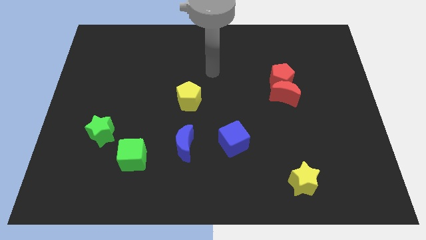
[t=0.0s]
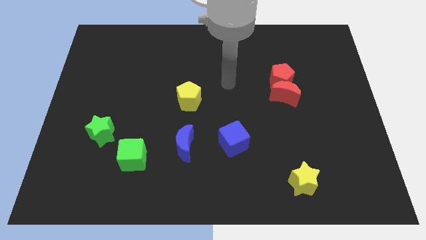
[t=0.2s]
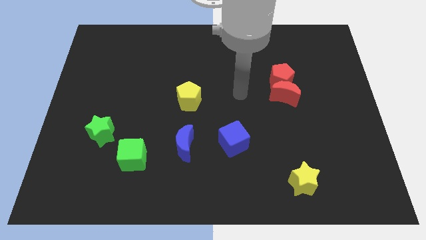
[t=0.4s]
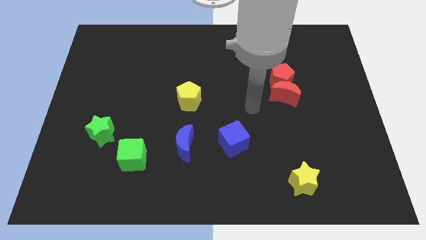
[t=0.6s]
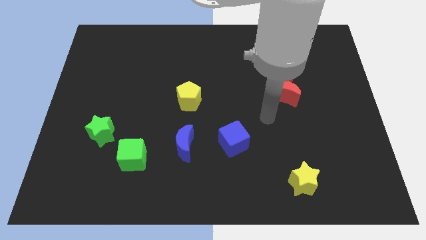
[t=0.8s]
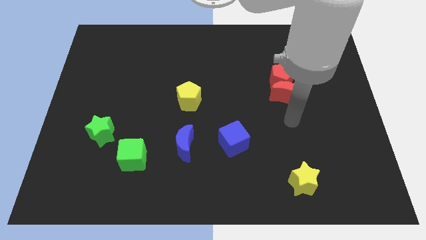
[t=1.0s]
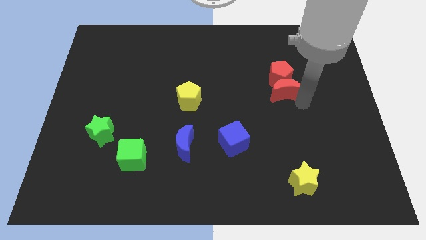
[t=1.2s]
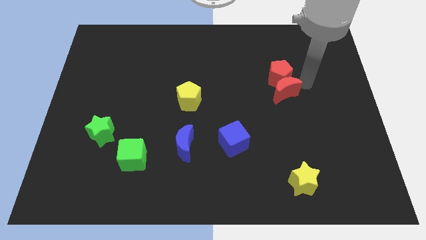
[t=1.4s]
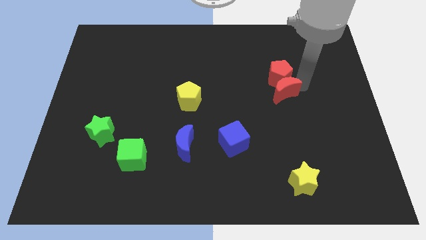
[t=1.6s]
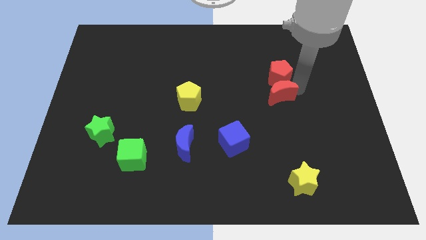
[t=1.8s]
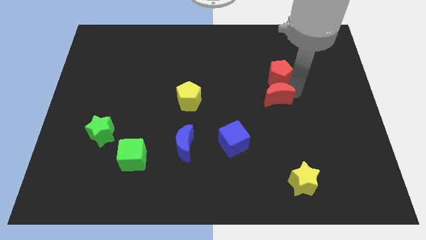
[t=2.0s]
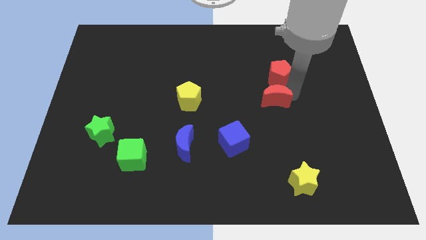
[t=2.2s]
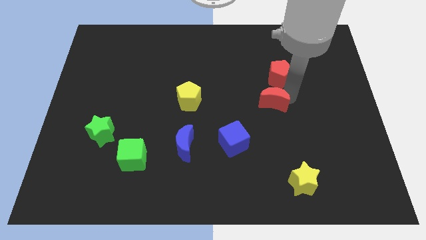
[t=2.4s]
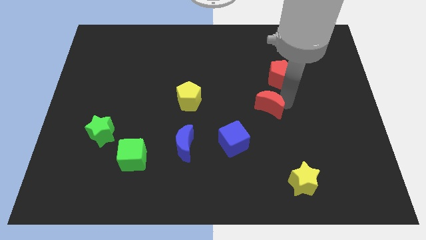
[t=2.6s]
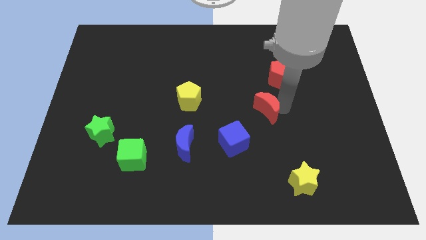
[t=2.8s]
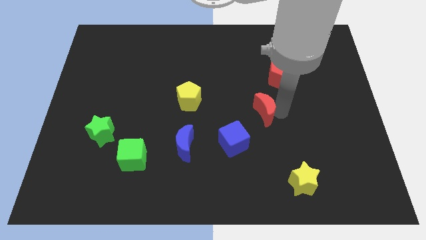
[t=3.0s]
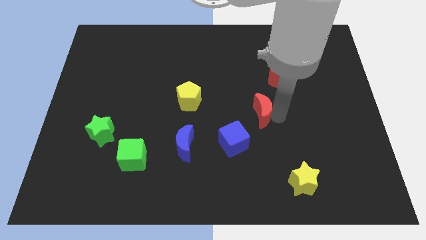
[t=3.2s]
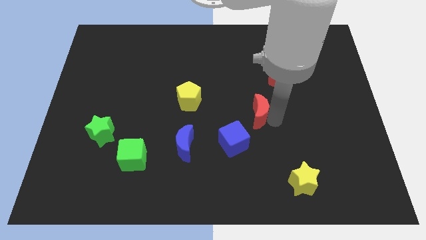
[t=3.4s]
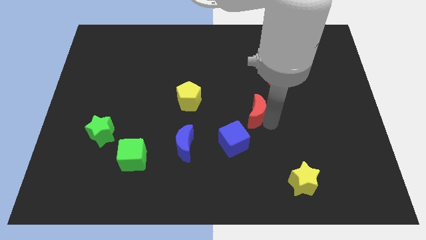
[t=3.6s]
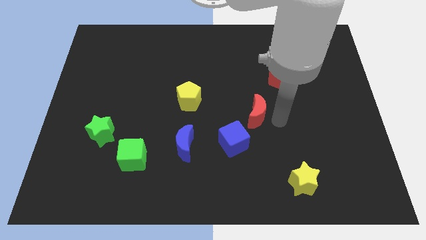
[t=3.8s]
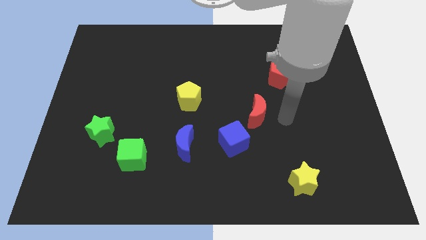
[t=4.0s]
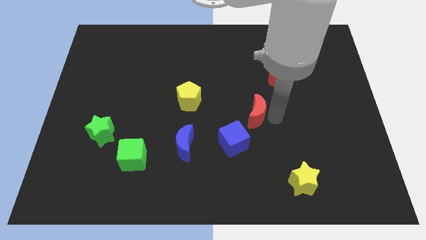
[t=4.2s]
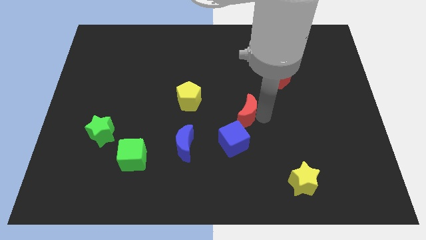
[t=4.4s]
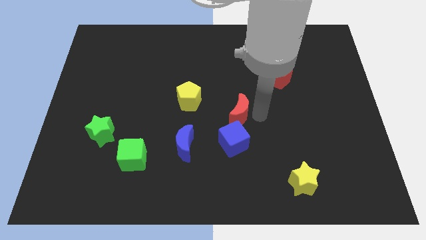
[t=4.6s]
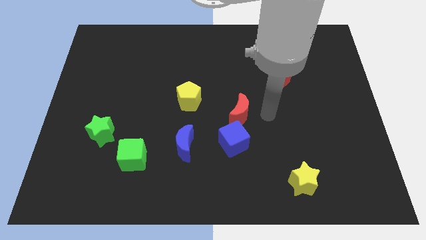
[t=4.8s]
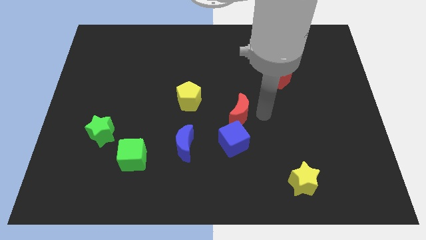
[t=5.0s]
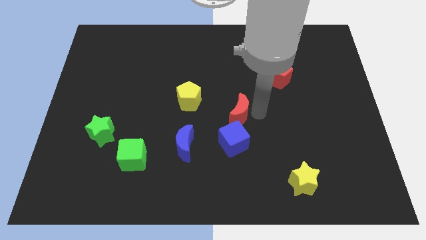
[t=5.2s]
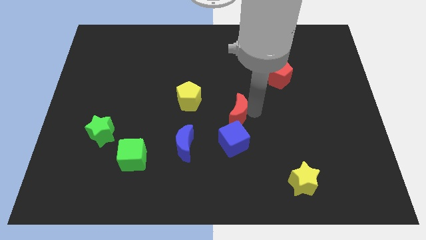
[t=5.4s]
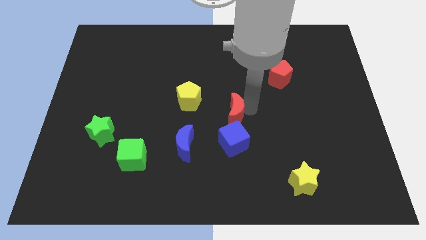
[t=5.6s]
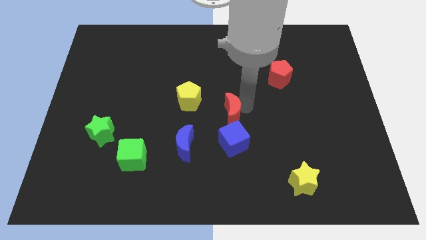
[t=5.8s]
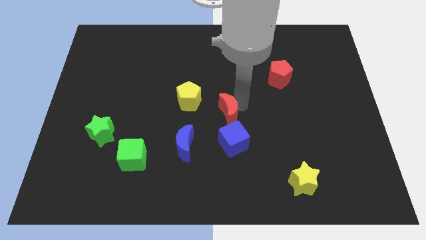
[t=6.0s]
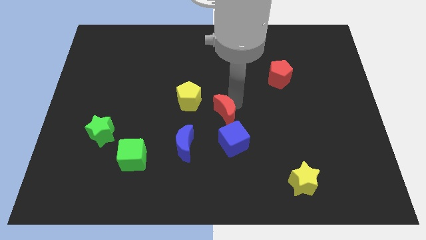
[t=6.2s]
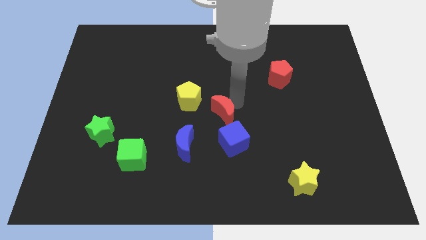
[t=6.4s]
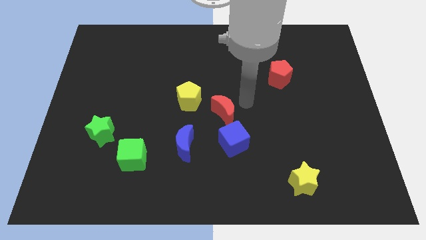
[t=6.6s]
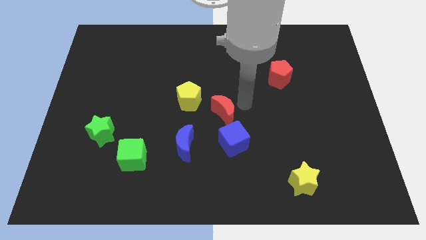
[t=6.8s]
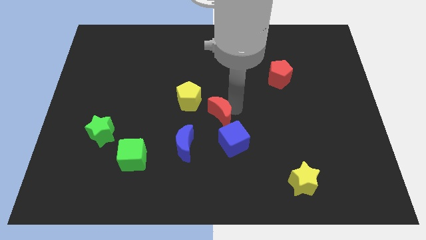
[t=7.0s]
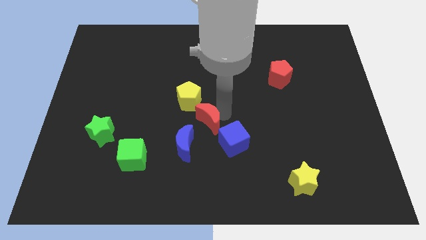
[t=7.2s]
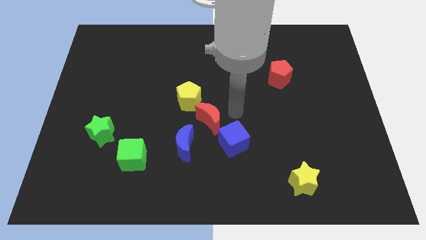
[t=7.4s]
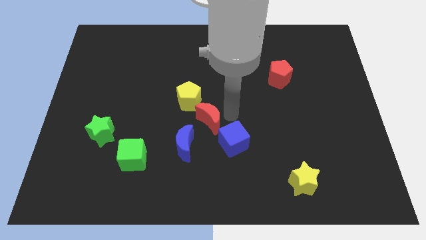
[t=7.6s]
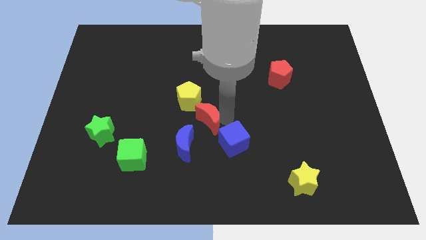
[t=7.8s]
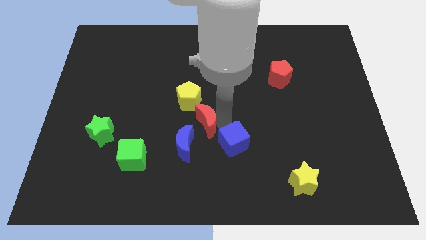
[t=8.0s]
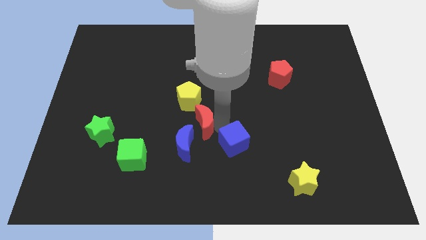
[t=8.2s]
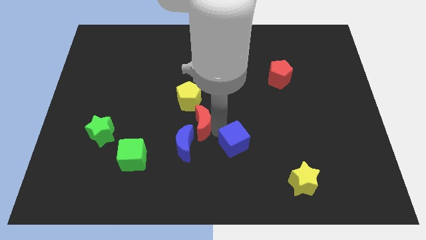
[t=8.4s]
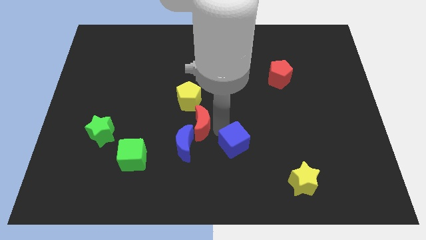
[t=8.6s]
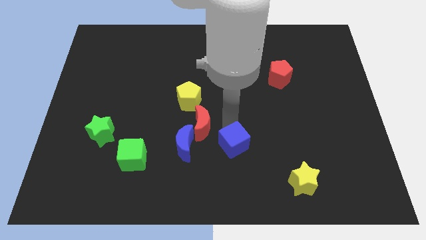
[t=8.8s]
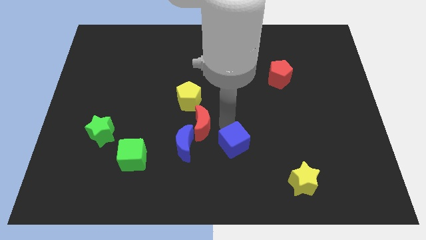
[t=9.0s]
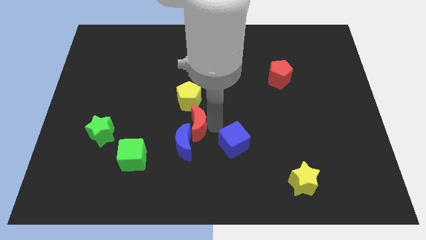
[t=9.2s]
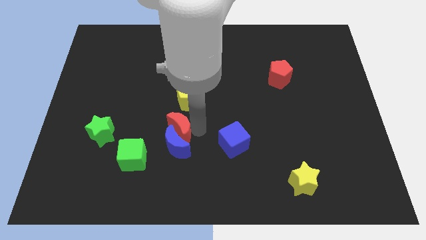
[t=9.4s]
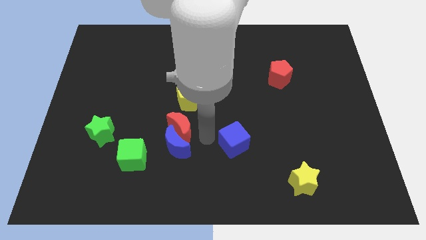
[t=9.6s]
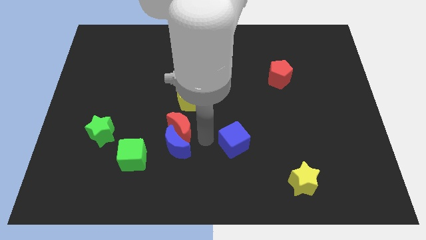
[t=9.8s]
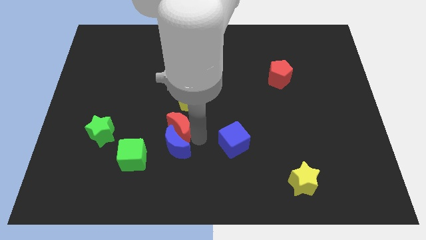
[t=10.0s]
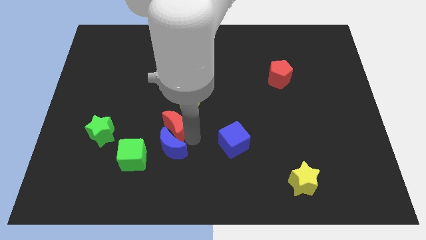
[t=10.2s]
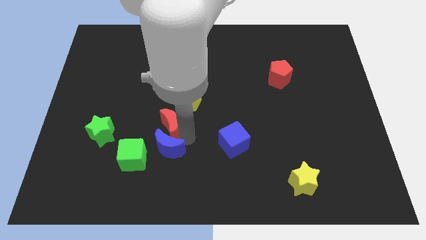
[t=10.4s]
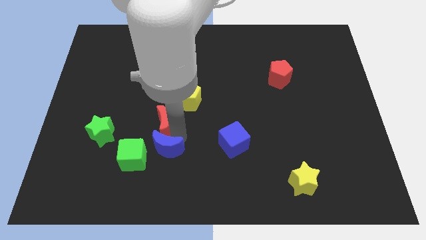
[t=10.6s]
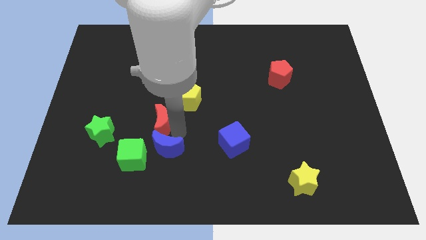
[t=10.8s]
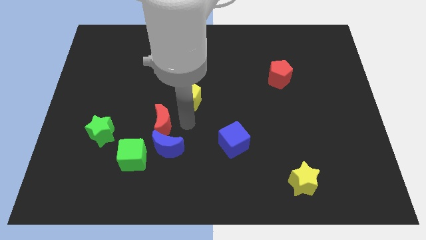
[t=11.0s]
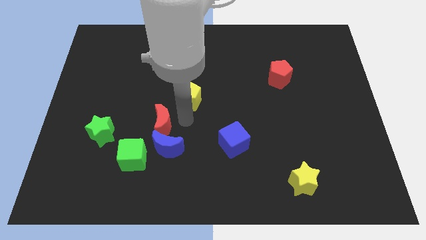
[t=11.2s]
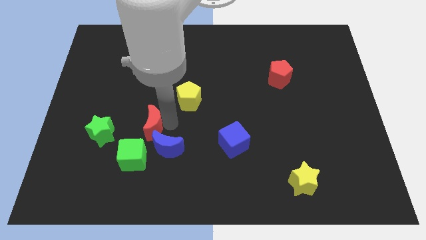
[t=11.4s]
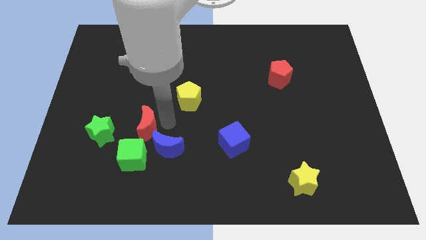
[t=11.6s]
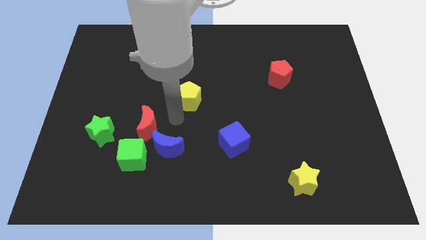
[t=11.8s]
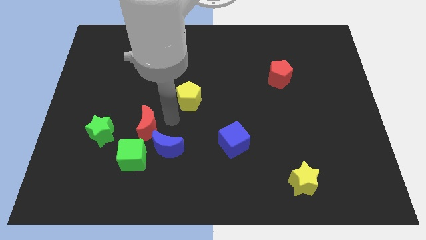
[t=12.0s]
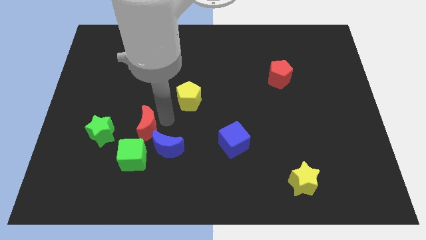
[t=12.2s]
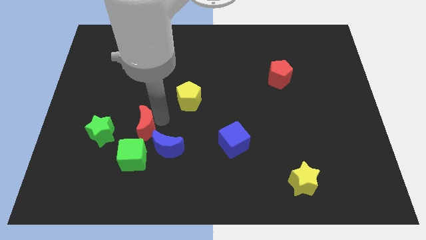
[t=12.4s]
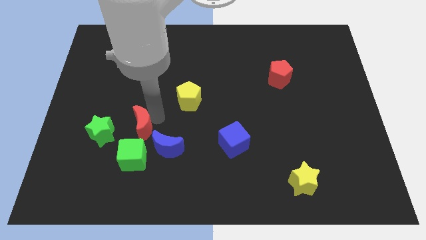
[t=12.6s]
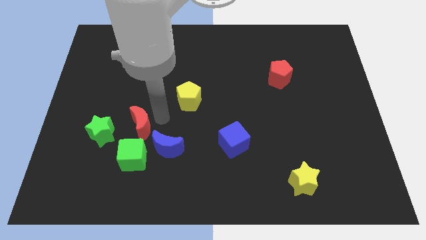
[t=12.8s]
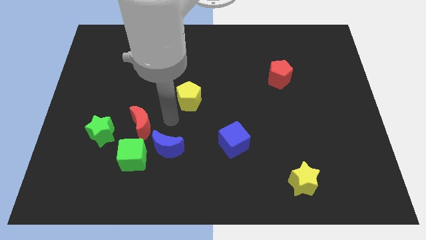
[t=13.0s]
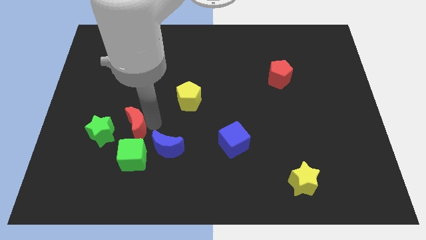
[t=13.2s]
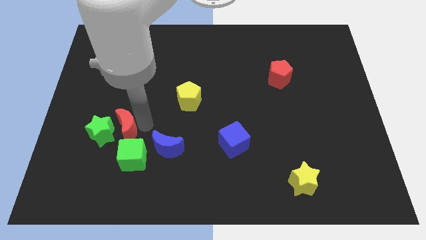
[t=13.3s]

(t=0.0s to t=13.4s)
push the red moon towards the green star

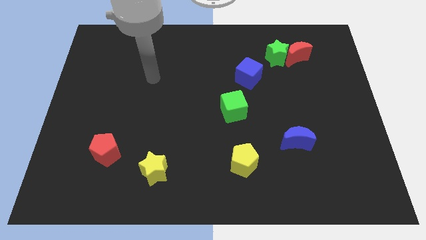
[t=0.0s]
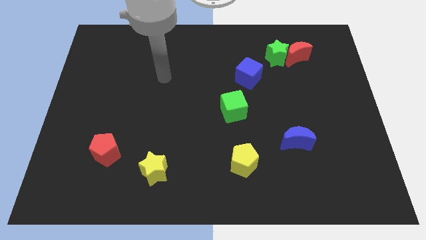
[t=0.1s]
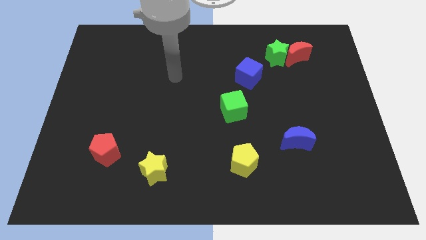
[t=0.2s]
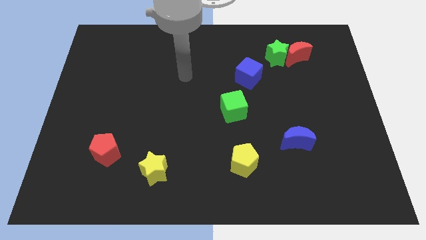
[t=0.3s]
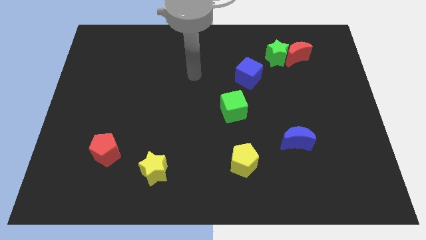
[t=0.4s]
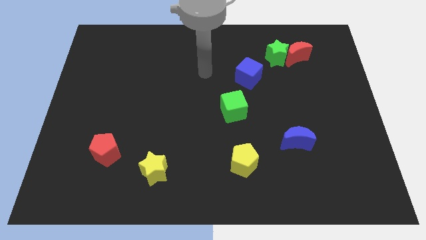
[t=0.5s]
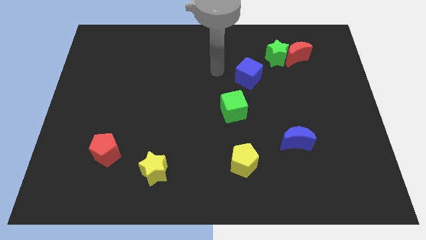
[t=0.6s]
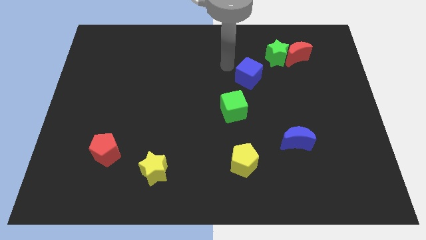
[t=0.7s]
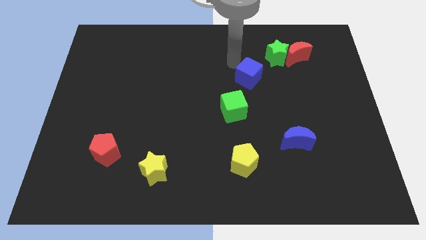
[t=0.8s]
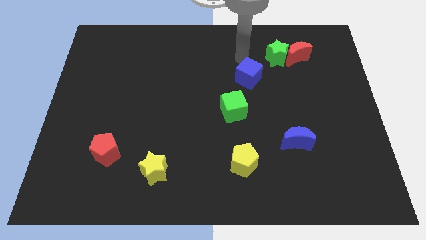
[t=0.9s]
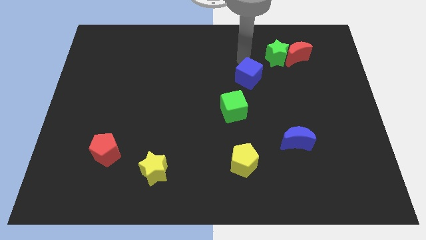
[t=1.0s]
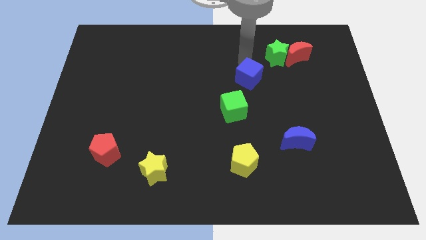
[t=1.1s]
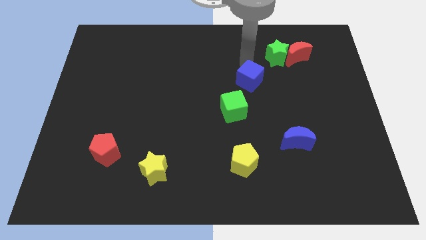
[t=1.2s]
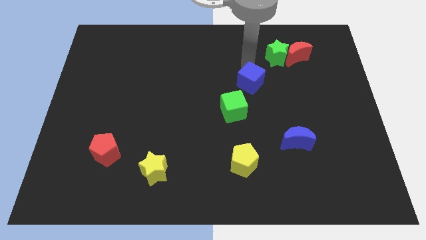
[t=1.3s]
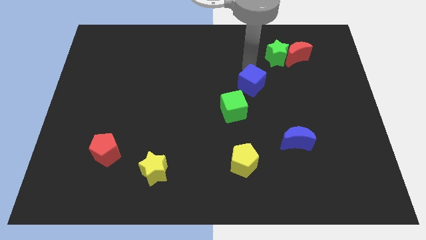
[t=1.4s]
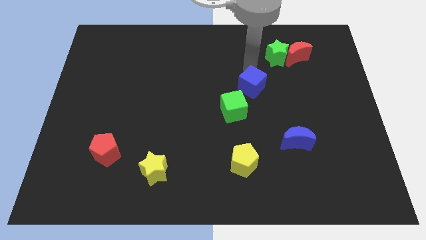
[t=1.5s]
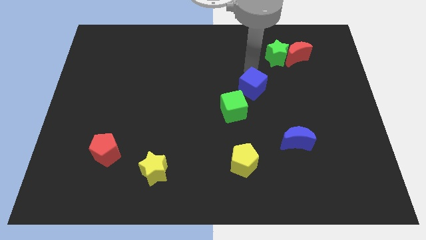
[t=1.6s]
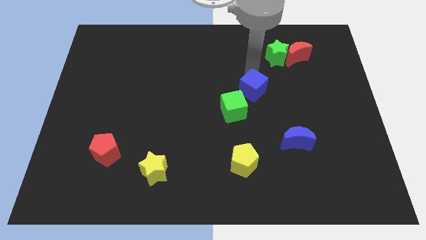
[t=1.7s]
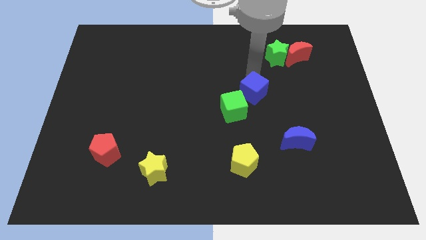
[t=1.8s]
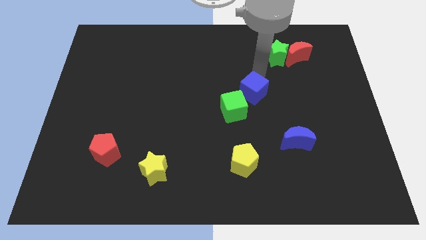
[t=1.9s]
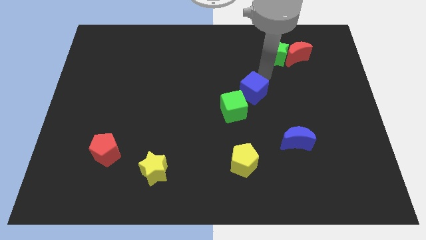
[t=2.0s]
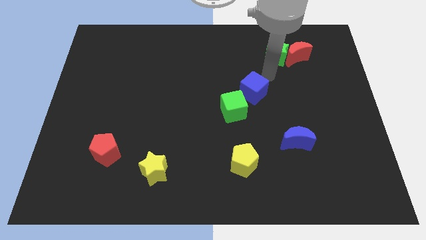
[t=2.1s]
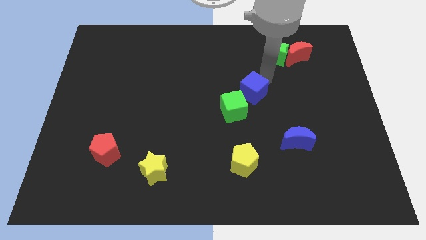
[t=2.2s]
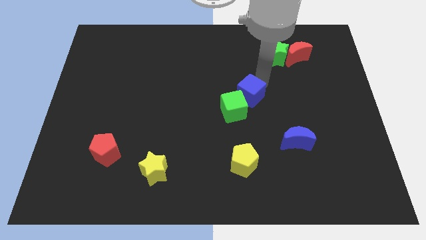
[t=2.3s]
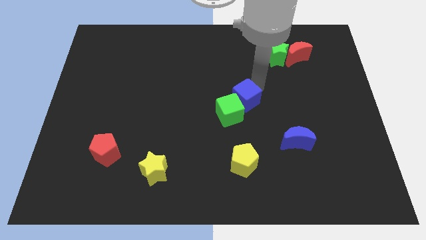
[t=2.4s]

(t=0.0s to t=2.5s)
push the blue cube to the green cube
